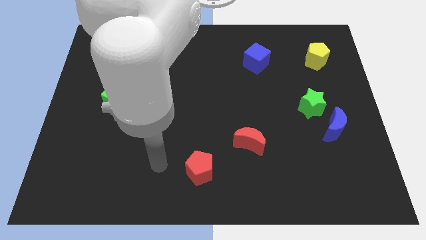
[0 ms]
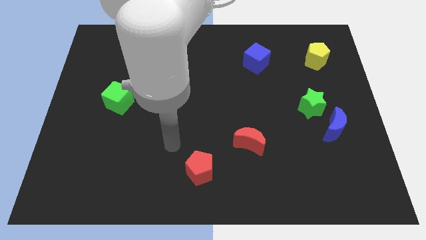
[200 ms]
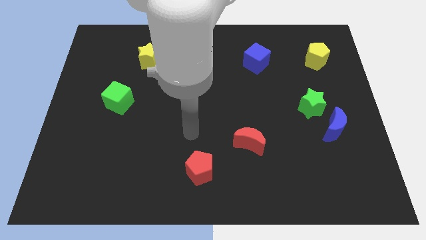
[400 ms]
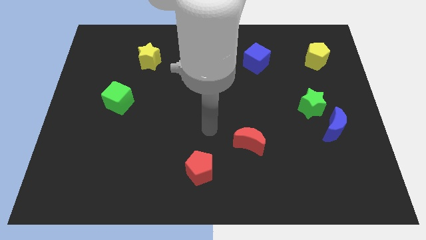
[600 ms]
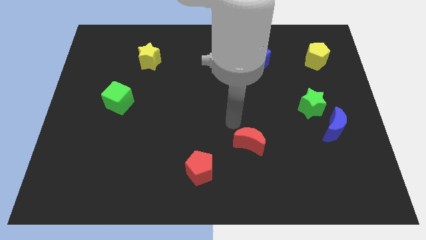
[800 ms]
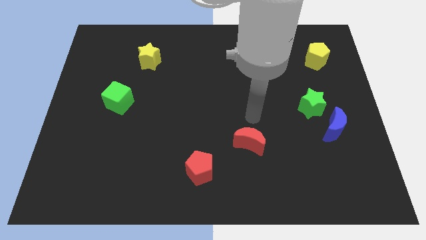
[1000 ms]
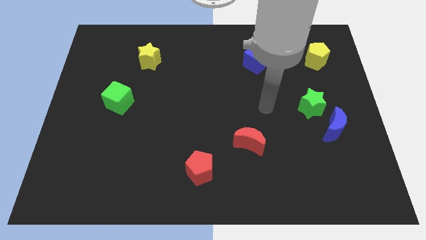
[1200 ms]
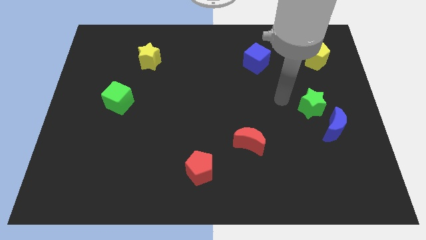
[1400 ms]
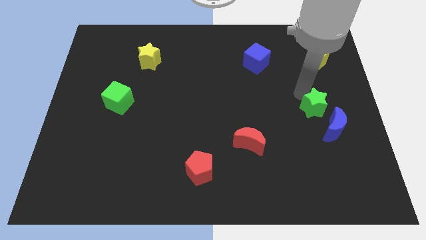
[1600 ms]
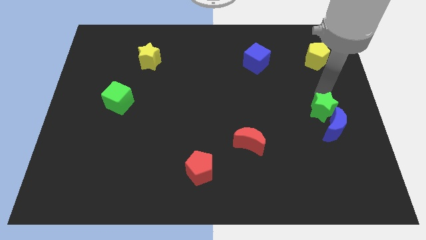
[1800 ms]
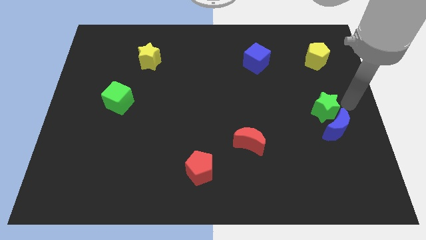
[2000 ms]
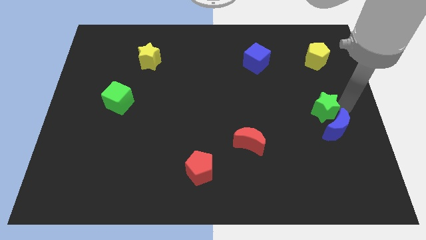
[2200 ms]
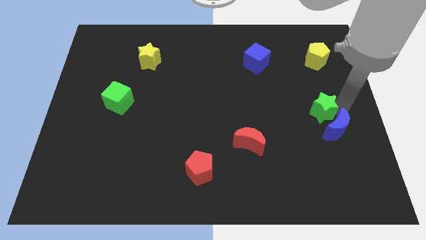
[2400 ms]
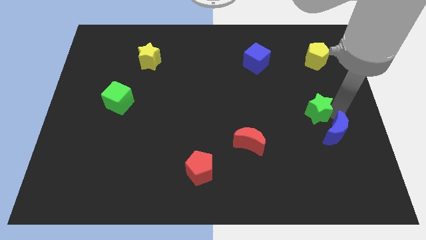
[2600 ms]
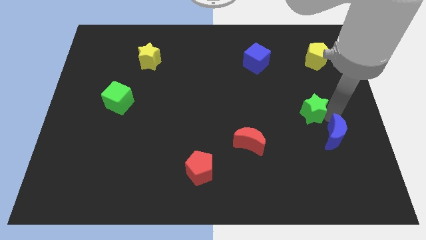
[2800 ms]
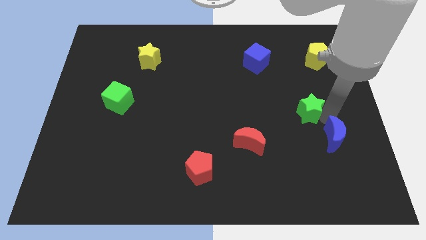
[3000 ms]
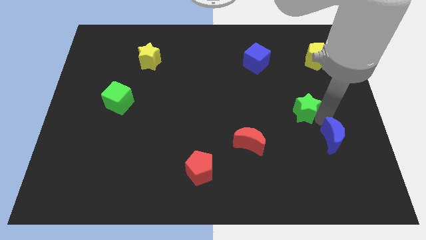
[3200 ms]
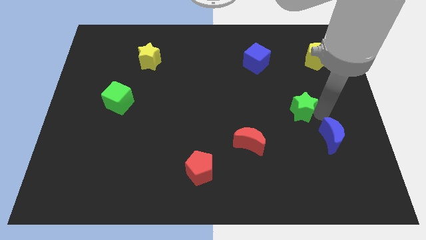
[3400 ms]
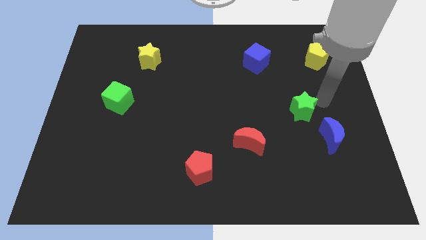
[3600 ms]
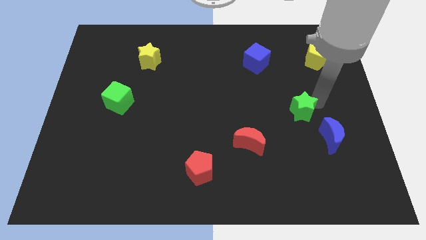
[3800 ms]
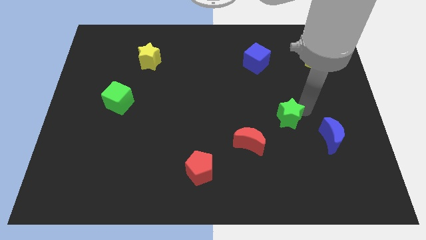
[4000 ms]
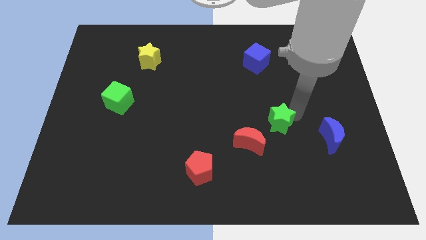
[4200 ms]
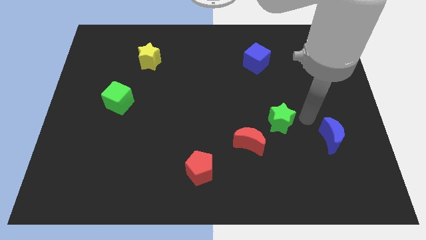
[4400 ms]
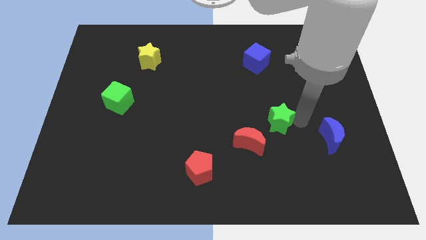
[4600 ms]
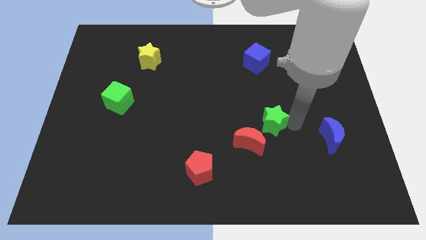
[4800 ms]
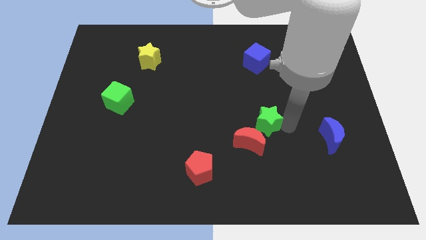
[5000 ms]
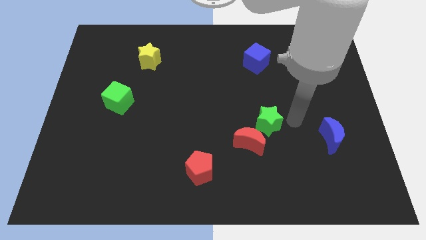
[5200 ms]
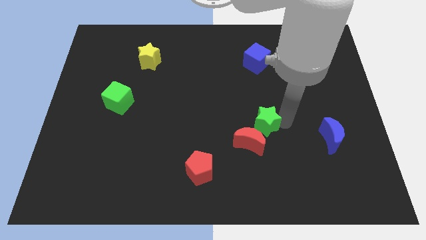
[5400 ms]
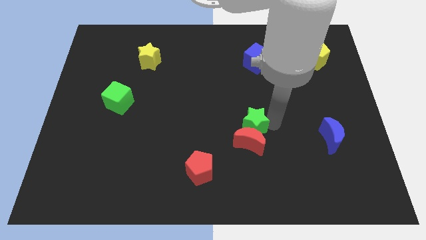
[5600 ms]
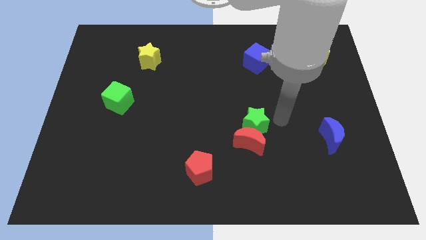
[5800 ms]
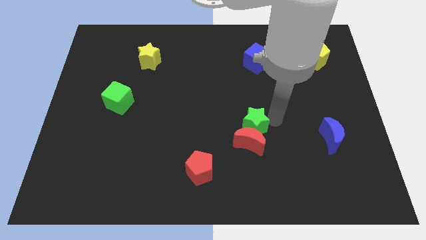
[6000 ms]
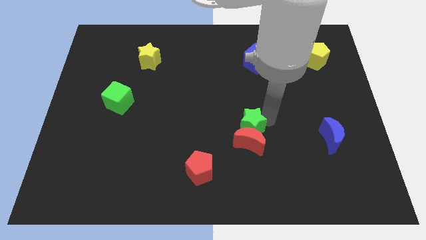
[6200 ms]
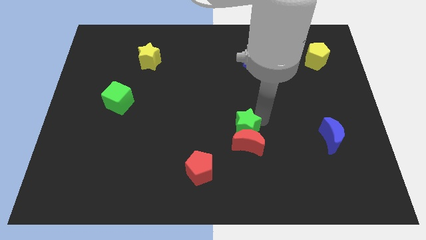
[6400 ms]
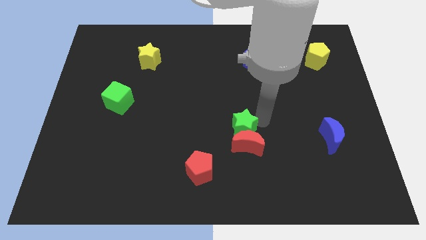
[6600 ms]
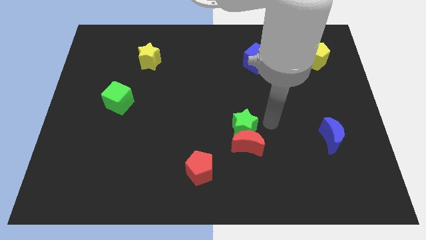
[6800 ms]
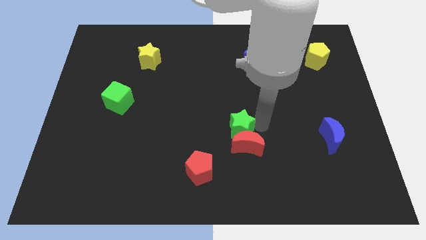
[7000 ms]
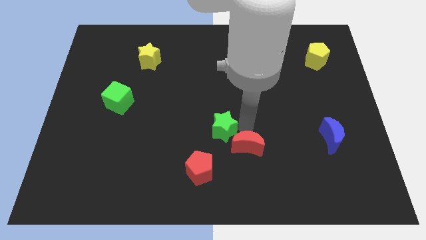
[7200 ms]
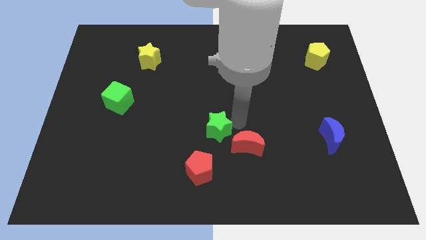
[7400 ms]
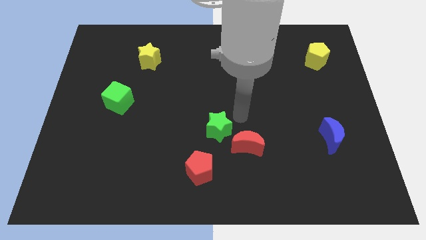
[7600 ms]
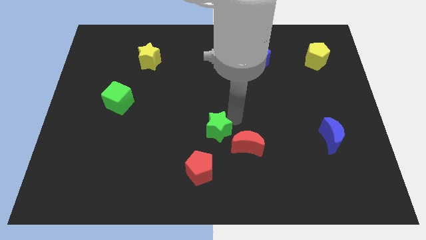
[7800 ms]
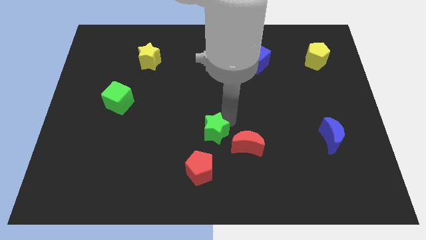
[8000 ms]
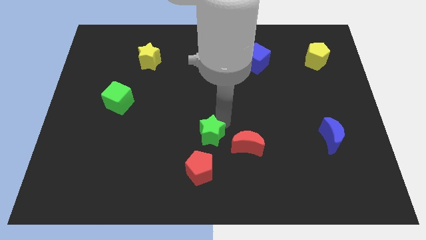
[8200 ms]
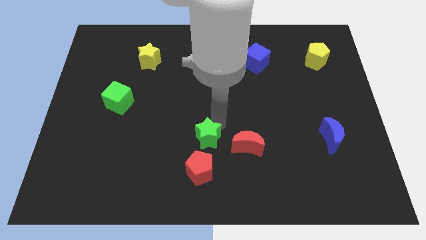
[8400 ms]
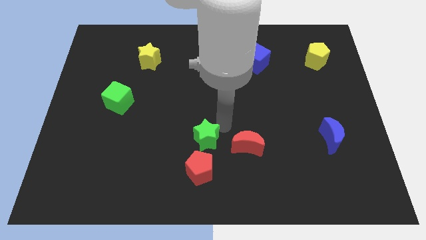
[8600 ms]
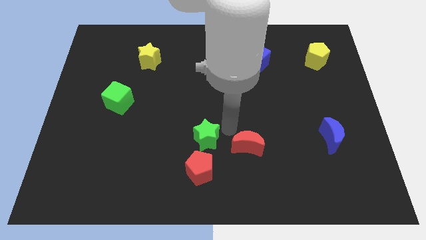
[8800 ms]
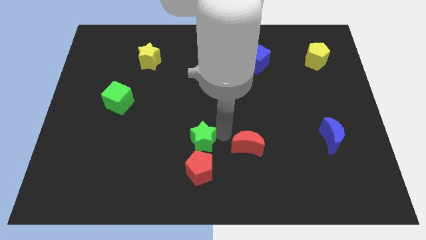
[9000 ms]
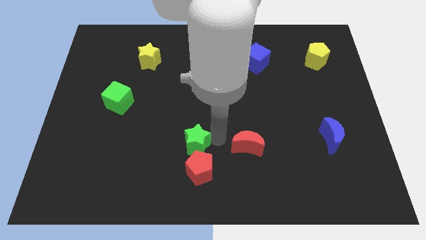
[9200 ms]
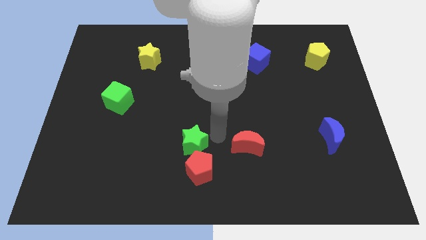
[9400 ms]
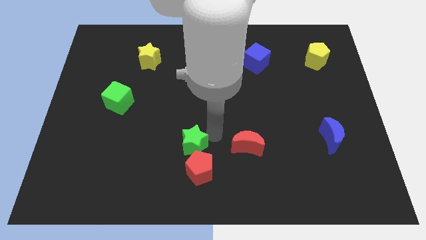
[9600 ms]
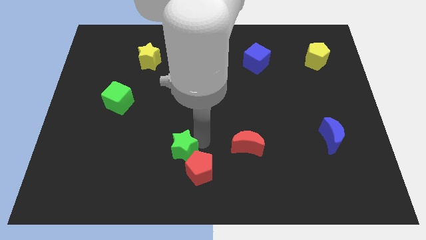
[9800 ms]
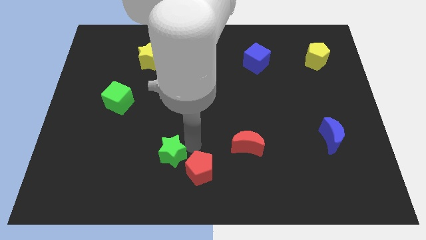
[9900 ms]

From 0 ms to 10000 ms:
move the green star to the left of the red pentagon

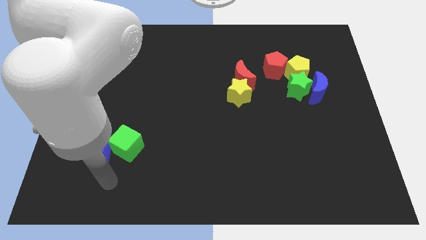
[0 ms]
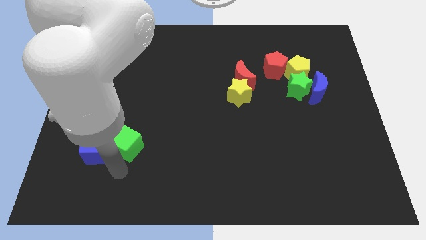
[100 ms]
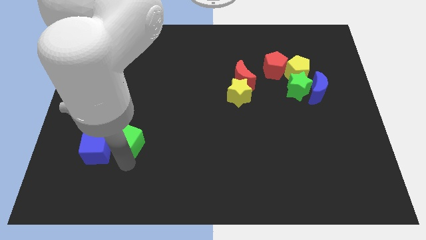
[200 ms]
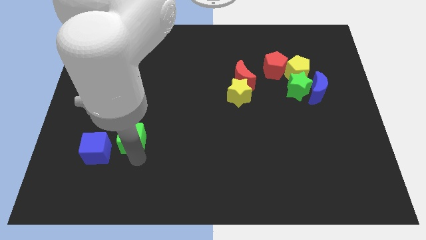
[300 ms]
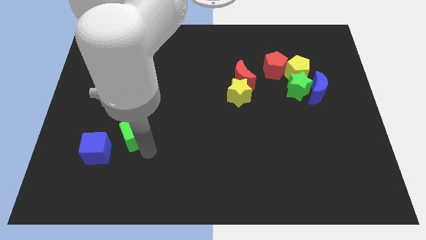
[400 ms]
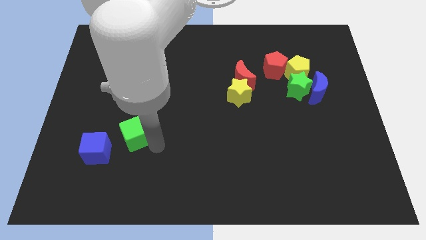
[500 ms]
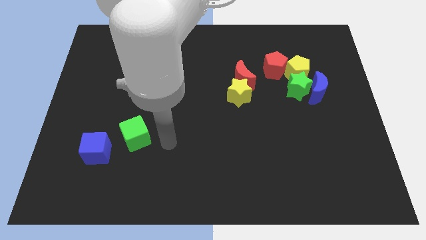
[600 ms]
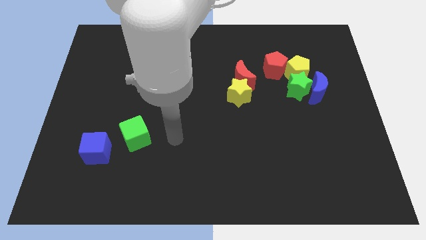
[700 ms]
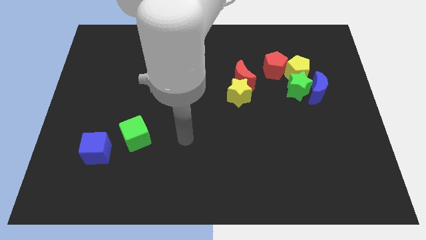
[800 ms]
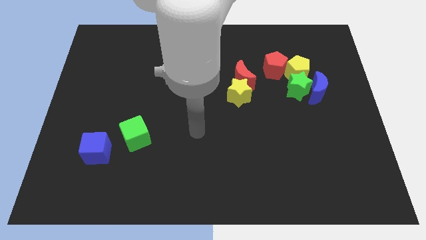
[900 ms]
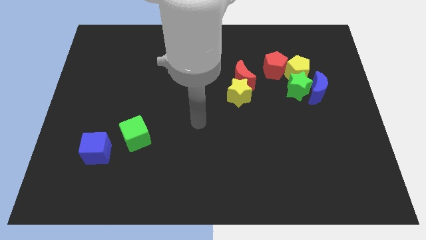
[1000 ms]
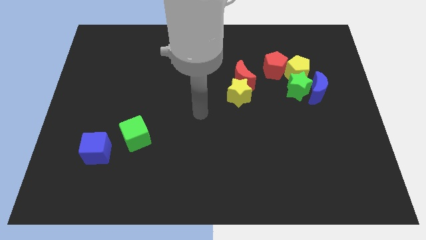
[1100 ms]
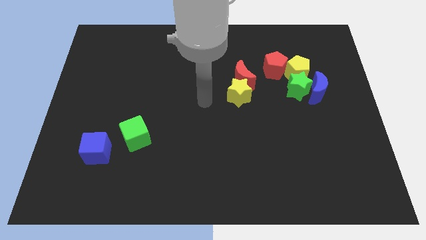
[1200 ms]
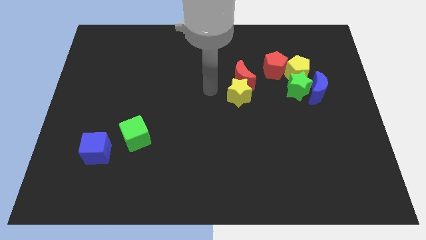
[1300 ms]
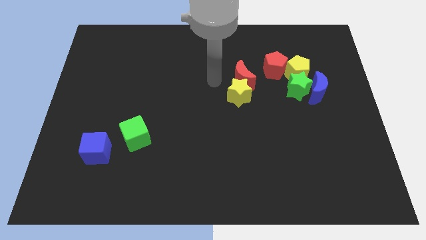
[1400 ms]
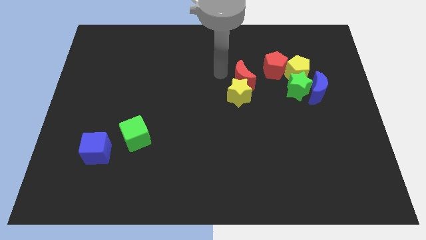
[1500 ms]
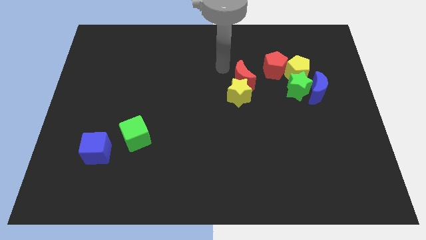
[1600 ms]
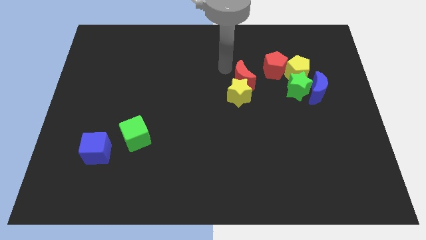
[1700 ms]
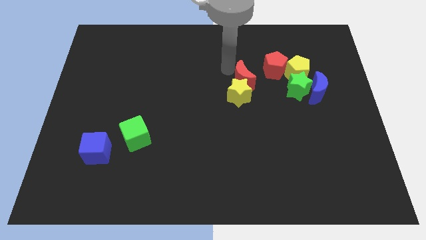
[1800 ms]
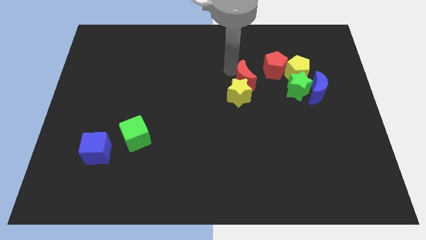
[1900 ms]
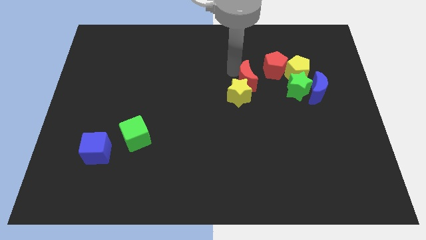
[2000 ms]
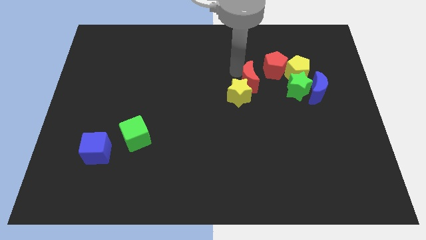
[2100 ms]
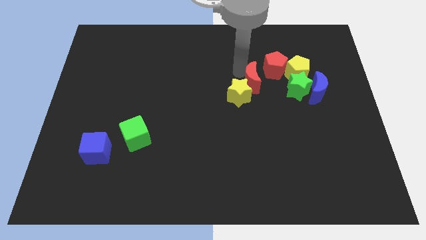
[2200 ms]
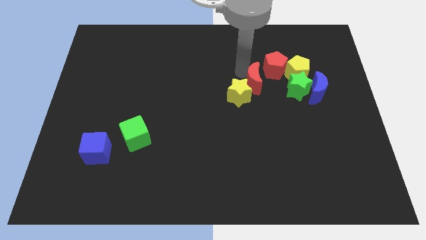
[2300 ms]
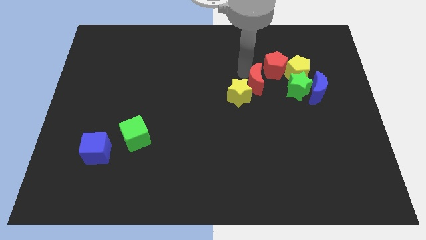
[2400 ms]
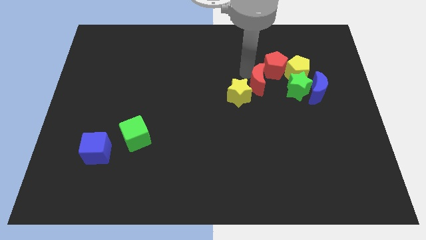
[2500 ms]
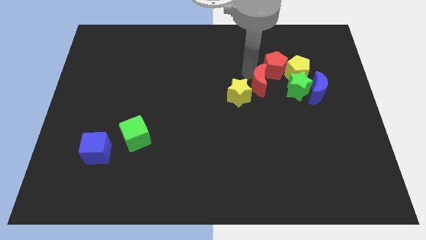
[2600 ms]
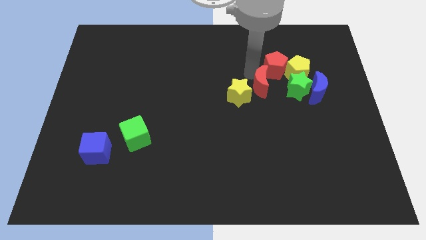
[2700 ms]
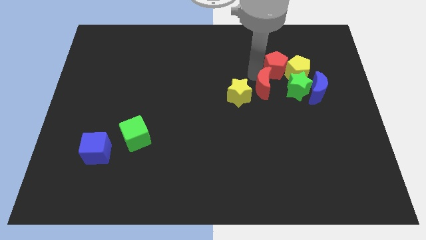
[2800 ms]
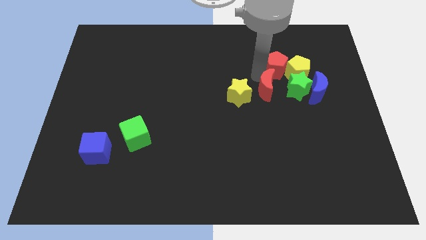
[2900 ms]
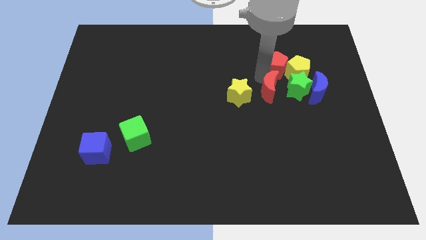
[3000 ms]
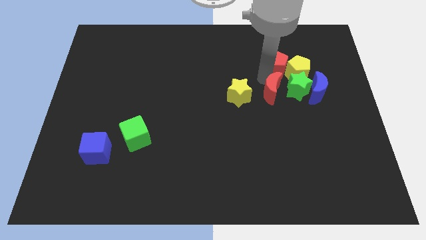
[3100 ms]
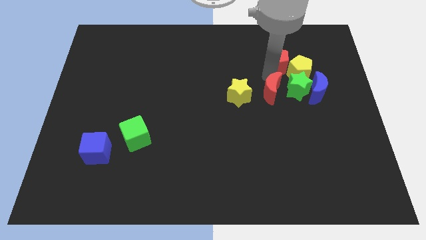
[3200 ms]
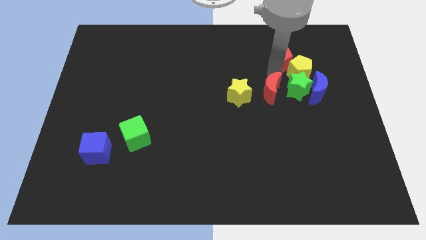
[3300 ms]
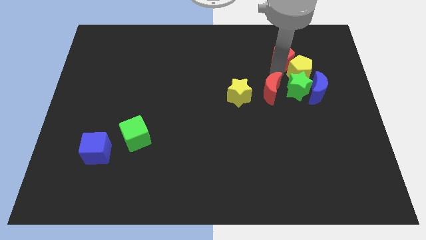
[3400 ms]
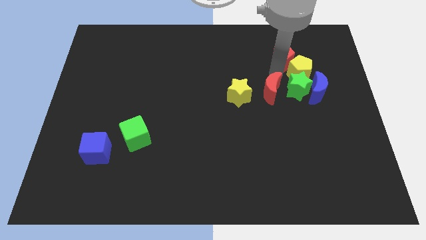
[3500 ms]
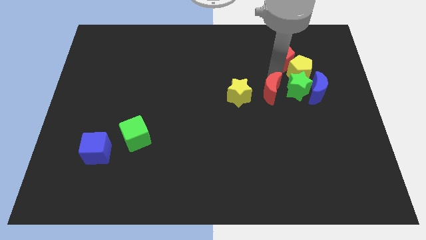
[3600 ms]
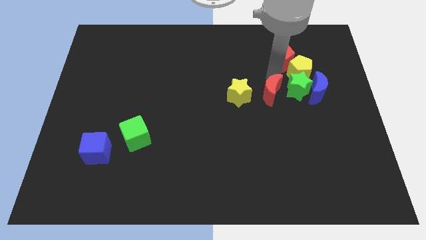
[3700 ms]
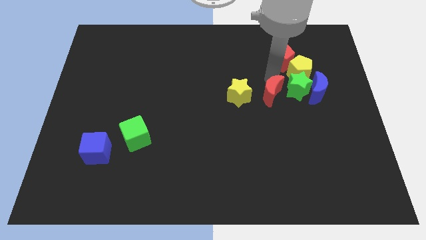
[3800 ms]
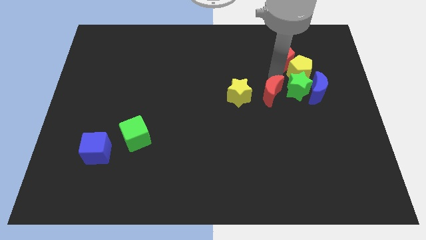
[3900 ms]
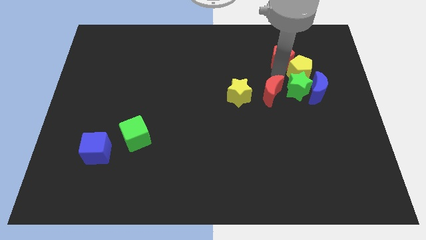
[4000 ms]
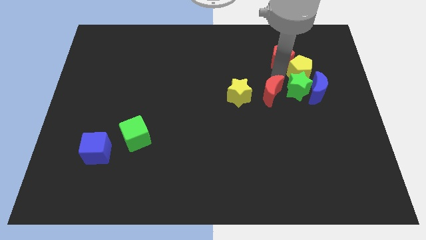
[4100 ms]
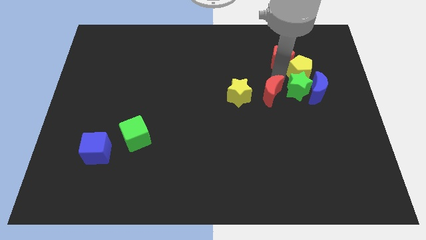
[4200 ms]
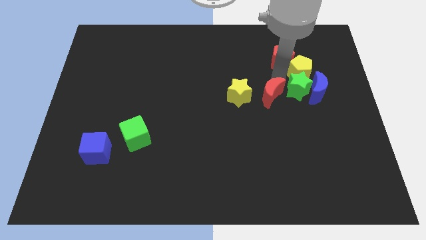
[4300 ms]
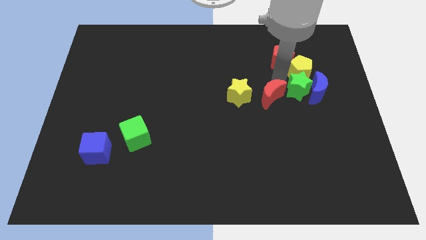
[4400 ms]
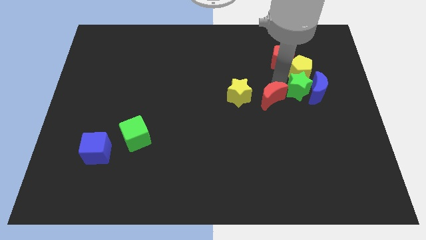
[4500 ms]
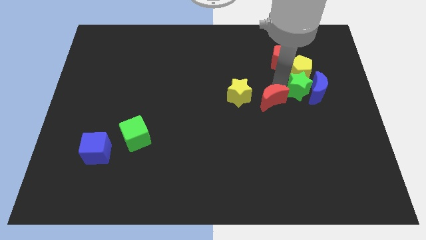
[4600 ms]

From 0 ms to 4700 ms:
slide the red moon to the bottom right of the yellow star
